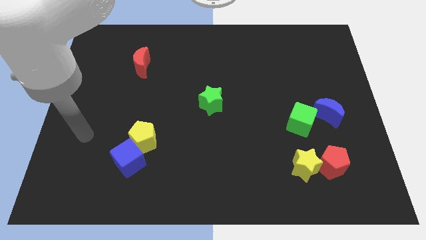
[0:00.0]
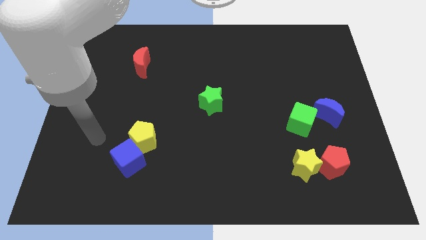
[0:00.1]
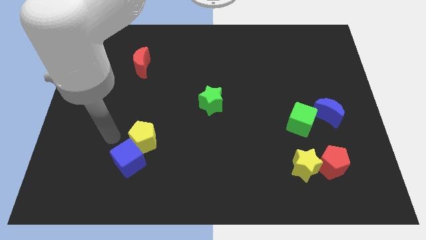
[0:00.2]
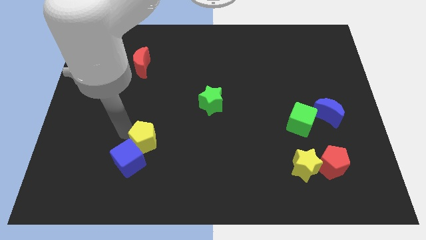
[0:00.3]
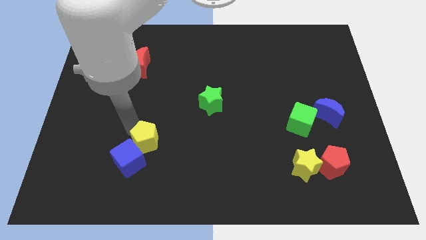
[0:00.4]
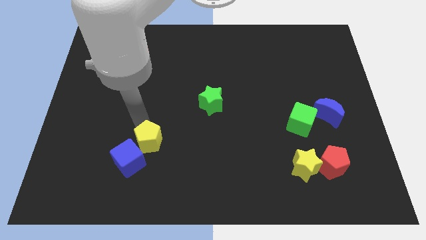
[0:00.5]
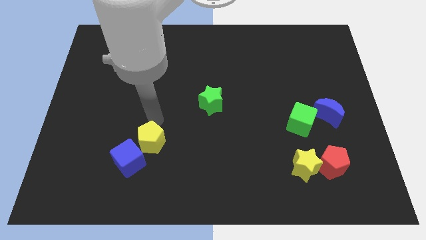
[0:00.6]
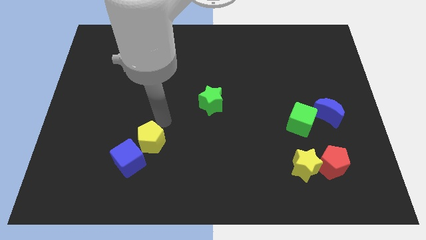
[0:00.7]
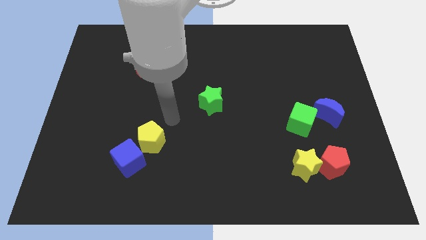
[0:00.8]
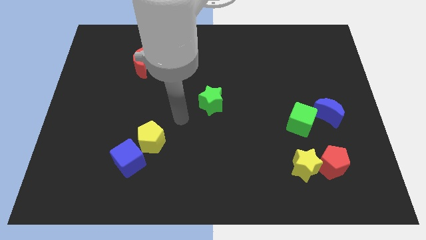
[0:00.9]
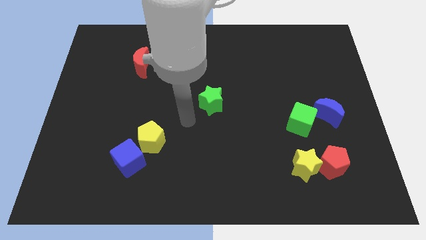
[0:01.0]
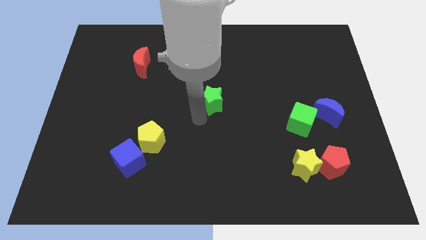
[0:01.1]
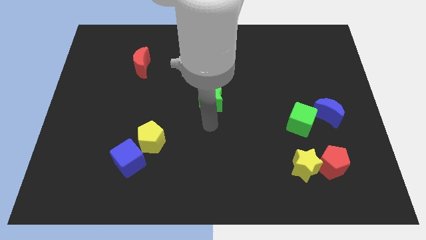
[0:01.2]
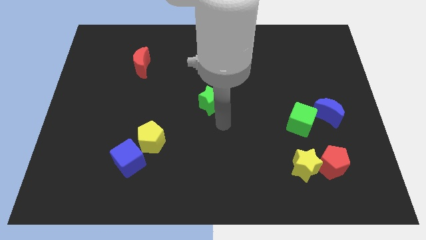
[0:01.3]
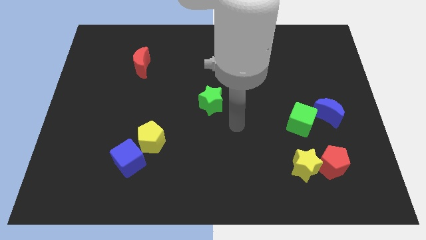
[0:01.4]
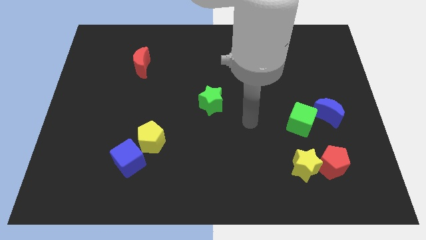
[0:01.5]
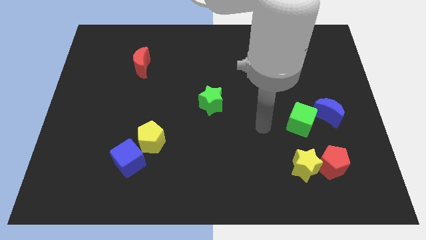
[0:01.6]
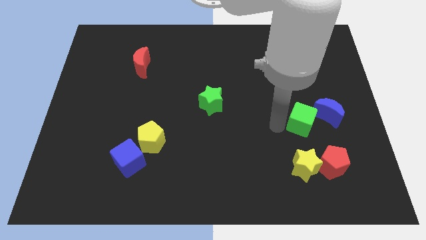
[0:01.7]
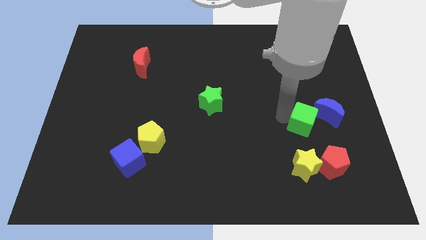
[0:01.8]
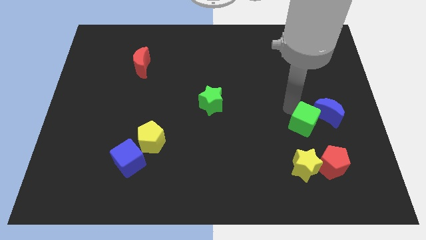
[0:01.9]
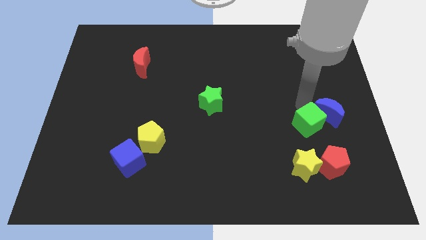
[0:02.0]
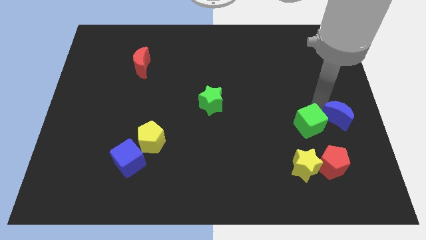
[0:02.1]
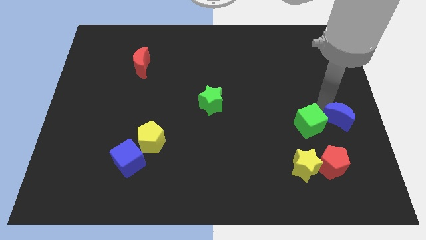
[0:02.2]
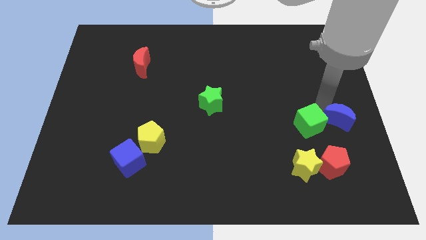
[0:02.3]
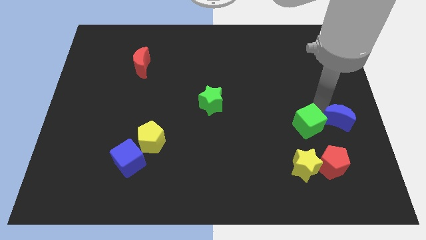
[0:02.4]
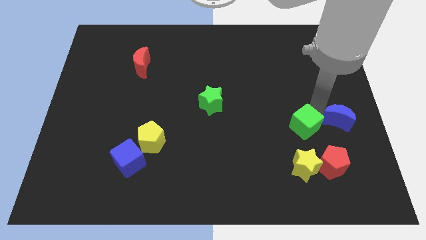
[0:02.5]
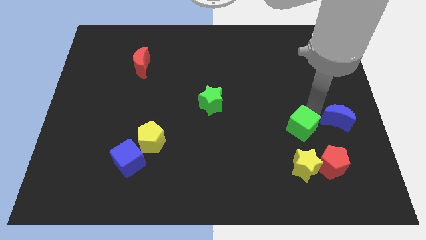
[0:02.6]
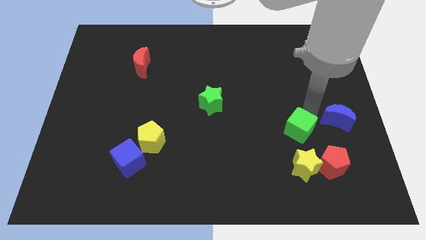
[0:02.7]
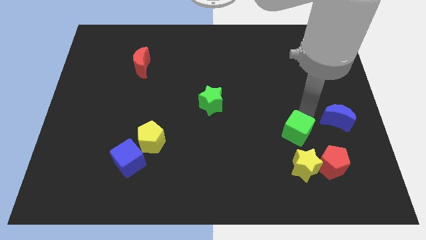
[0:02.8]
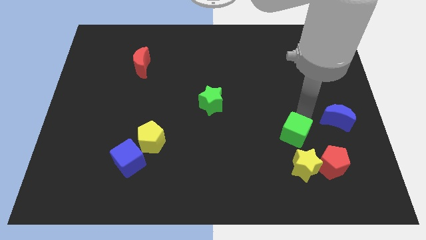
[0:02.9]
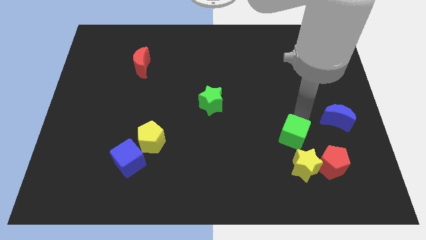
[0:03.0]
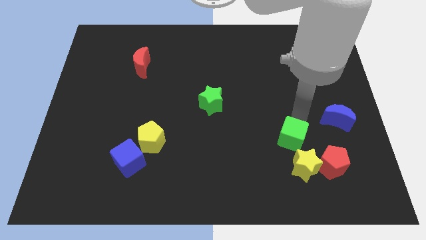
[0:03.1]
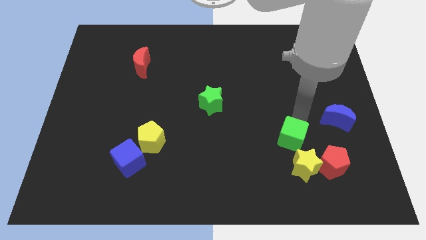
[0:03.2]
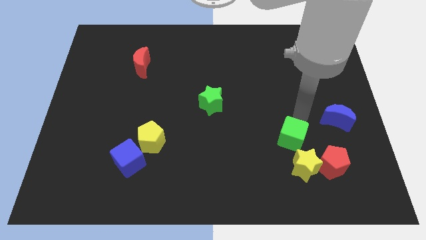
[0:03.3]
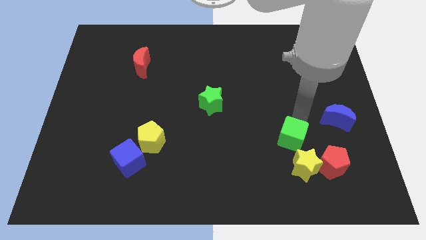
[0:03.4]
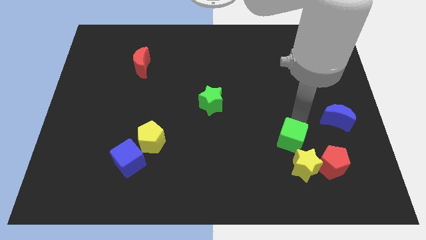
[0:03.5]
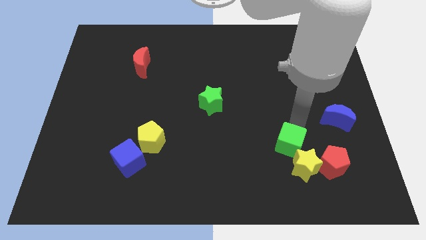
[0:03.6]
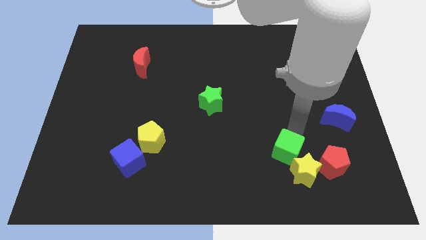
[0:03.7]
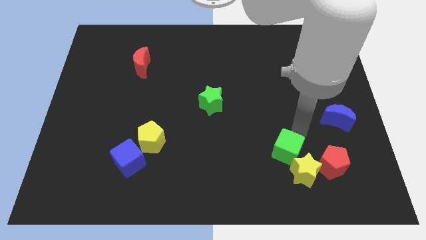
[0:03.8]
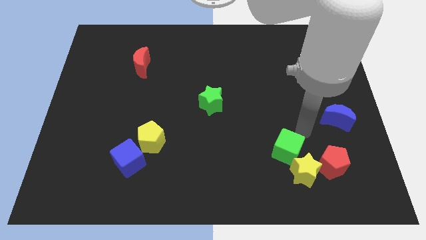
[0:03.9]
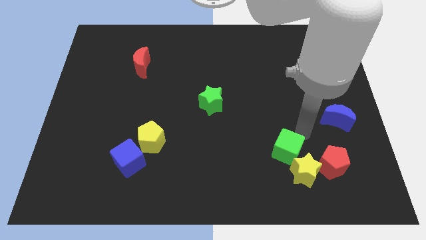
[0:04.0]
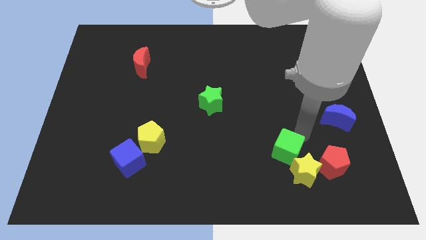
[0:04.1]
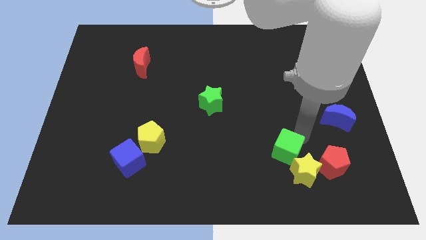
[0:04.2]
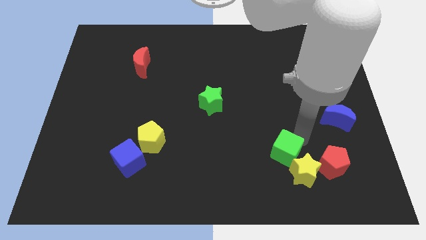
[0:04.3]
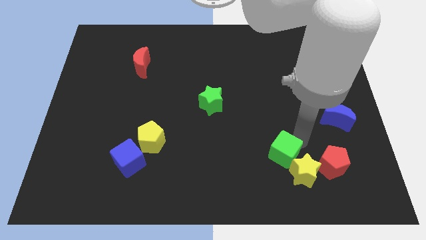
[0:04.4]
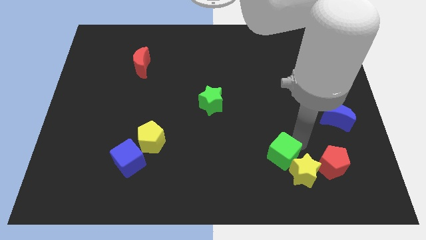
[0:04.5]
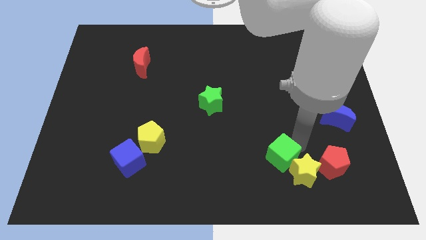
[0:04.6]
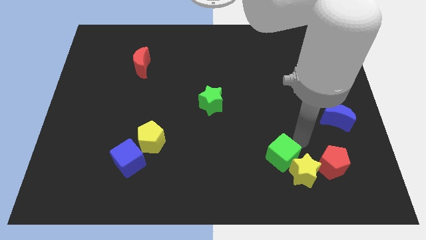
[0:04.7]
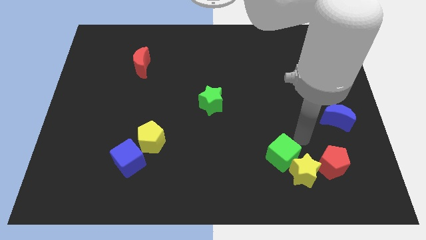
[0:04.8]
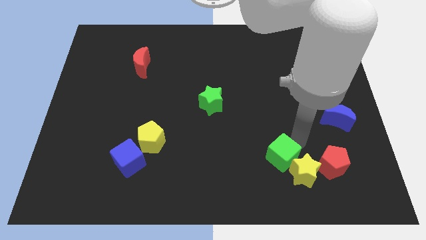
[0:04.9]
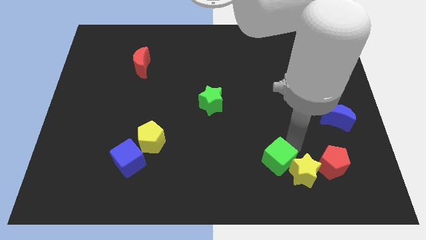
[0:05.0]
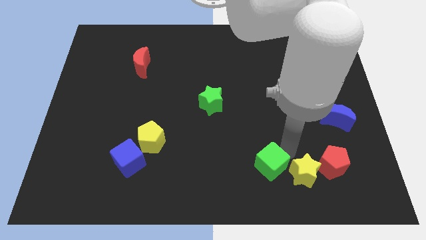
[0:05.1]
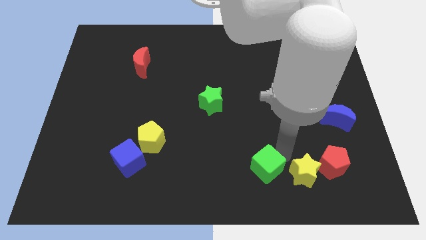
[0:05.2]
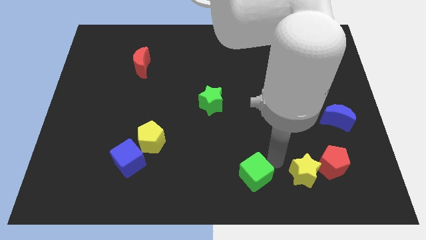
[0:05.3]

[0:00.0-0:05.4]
move the green cube to the bottom
